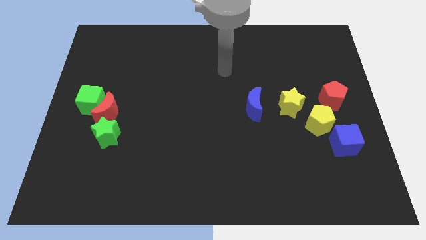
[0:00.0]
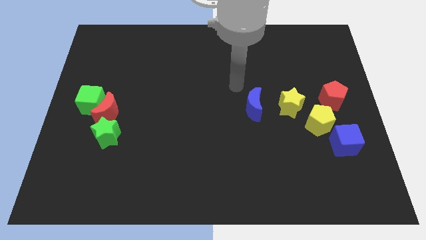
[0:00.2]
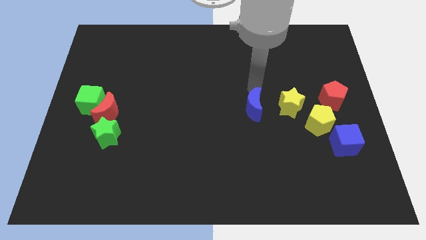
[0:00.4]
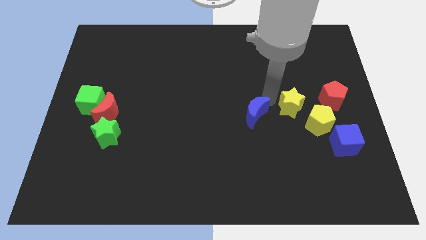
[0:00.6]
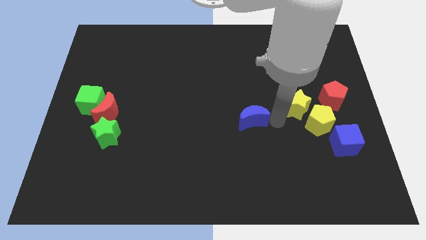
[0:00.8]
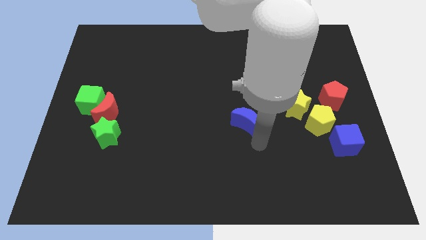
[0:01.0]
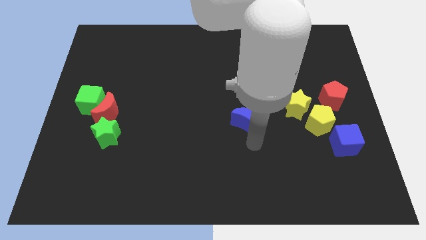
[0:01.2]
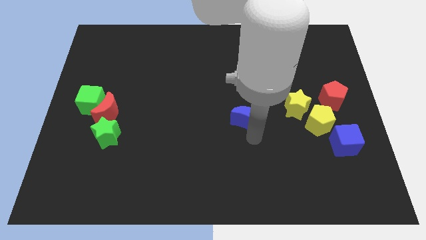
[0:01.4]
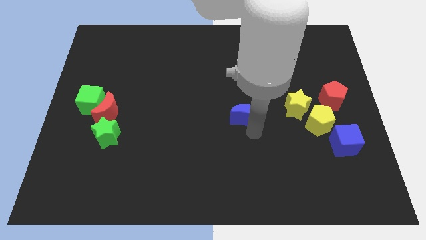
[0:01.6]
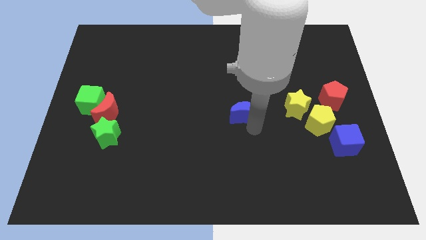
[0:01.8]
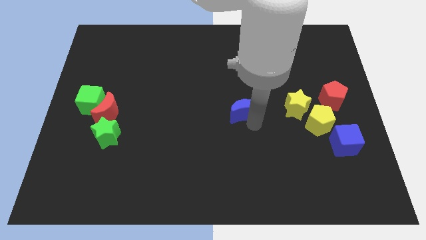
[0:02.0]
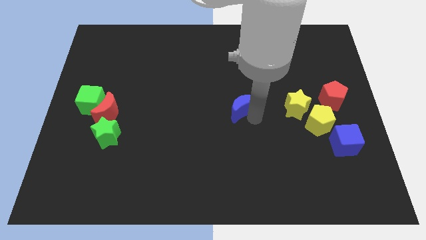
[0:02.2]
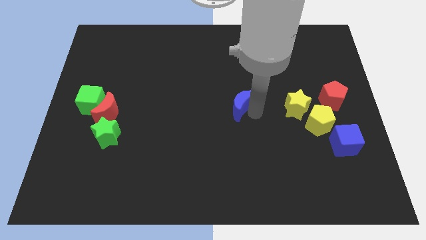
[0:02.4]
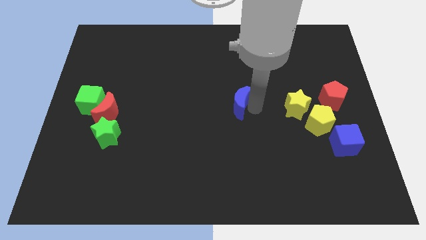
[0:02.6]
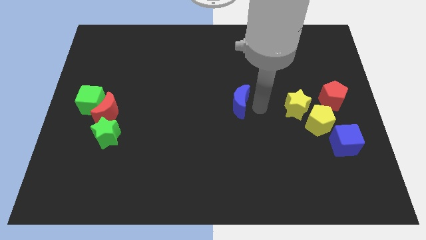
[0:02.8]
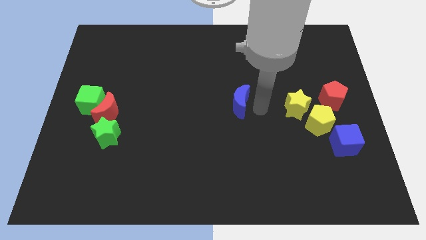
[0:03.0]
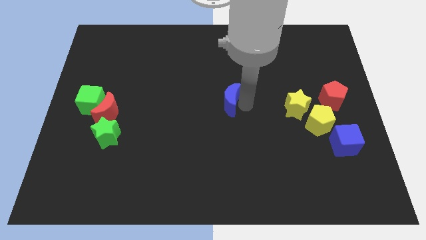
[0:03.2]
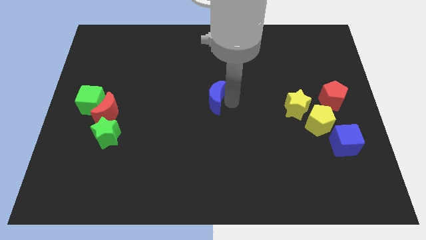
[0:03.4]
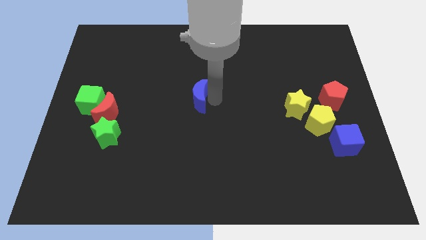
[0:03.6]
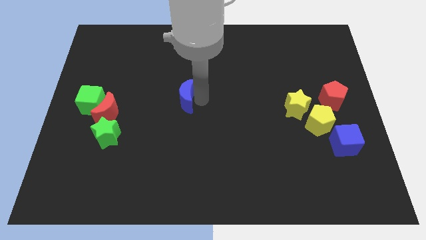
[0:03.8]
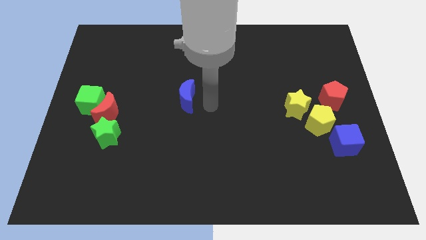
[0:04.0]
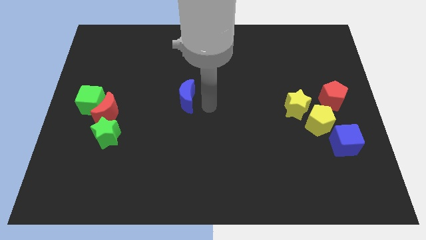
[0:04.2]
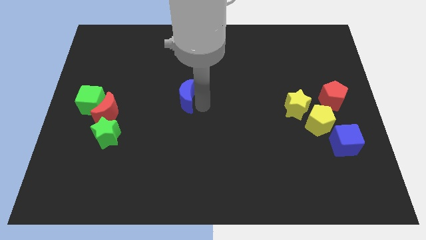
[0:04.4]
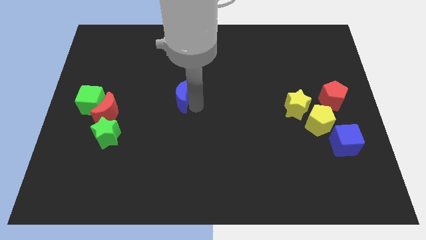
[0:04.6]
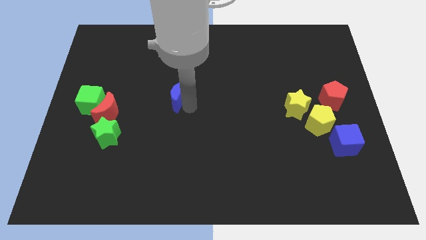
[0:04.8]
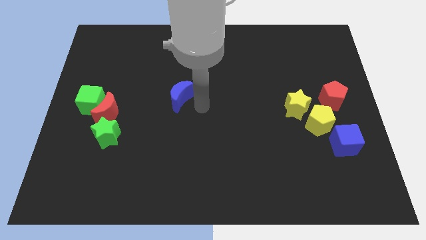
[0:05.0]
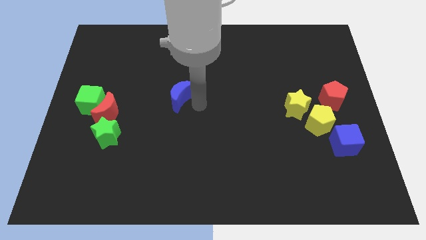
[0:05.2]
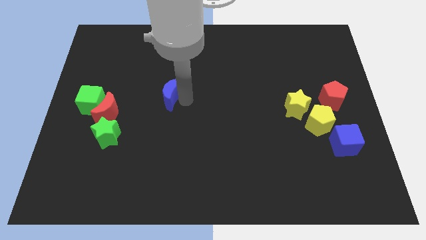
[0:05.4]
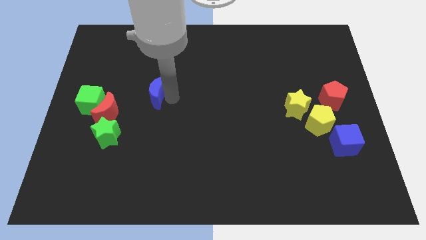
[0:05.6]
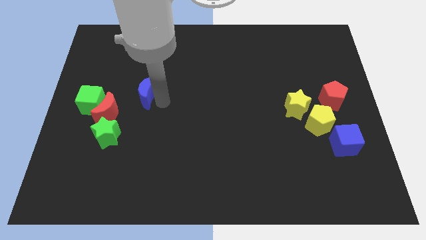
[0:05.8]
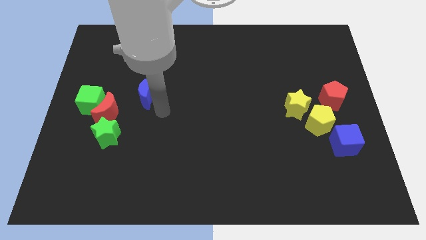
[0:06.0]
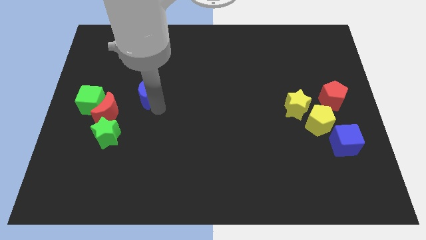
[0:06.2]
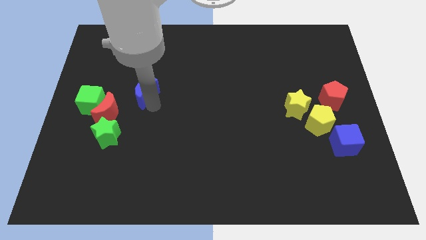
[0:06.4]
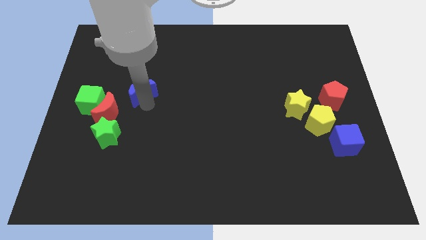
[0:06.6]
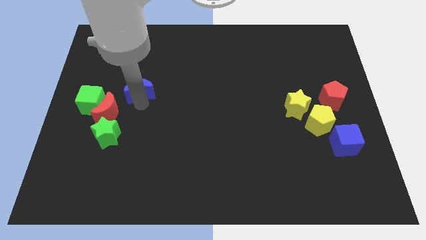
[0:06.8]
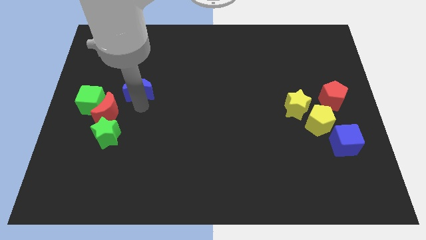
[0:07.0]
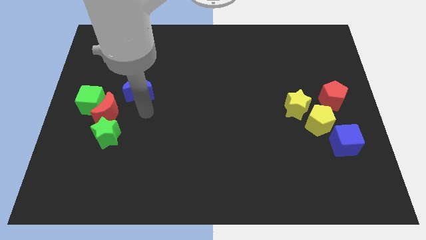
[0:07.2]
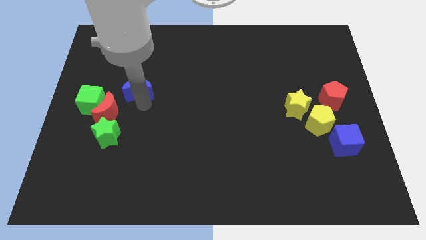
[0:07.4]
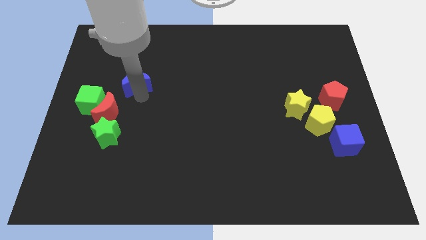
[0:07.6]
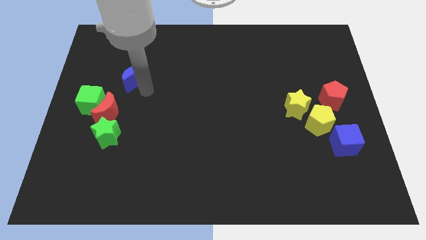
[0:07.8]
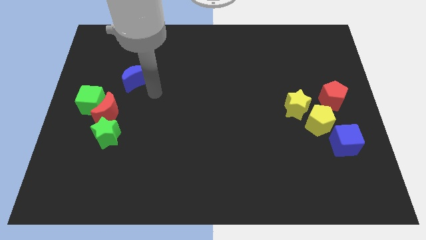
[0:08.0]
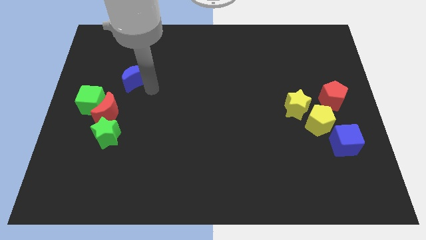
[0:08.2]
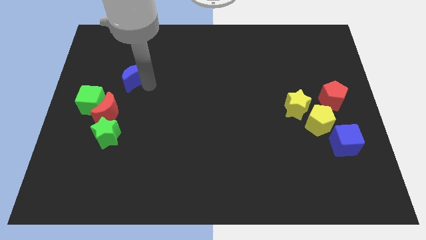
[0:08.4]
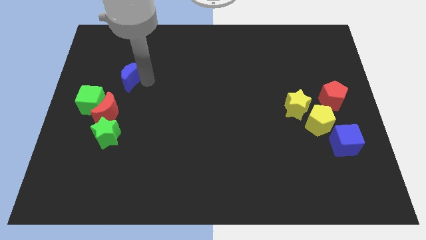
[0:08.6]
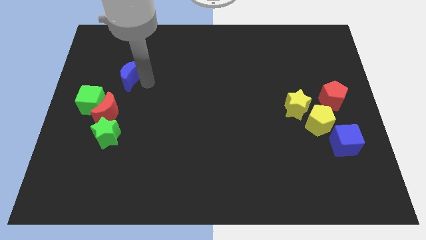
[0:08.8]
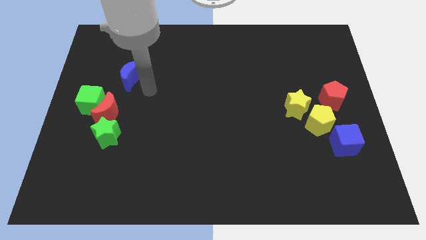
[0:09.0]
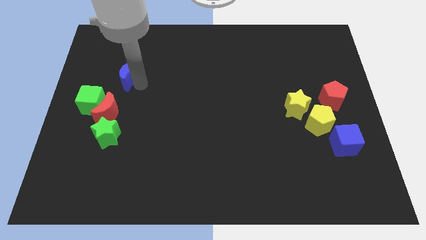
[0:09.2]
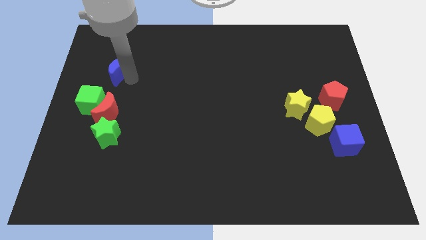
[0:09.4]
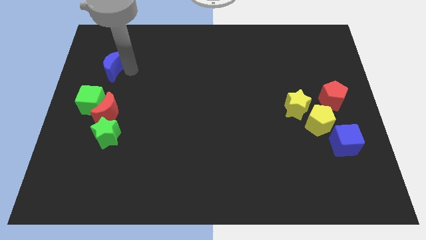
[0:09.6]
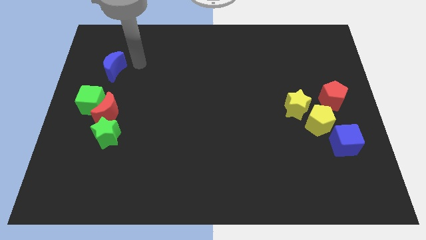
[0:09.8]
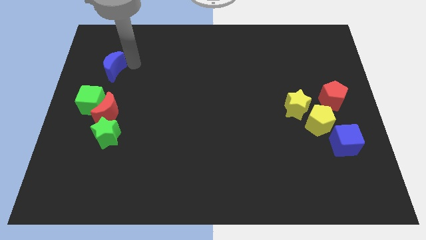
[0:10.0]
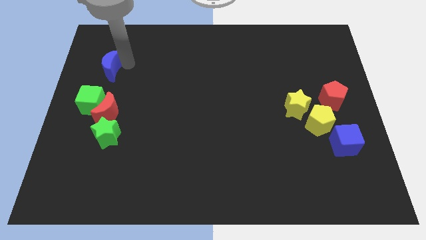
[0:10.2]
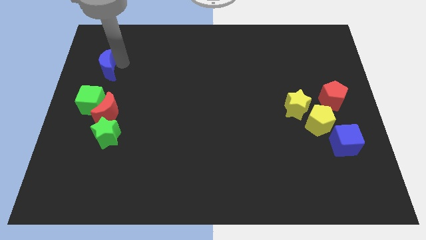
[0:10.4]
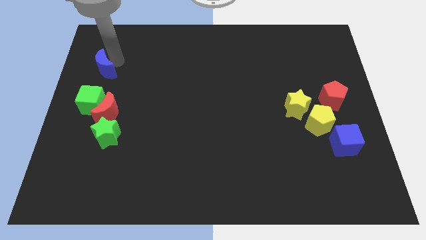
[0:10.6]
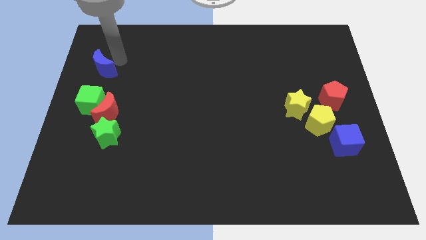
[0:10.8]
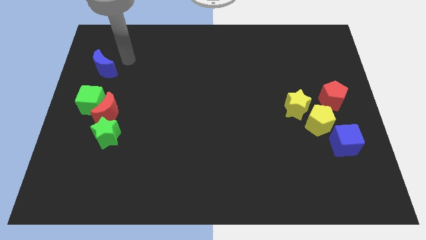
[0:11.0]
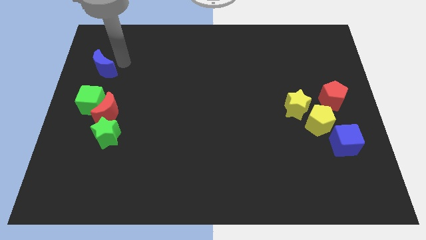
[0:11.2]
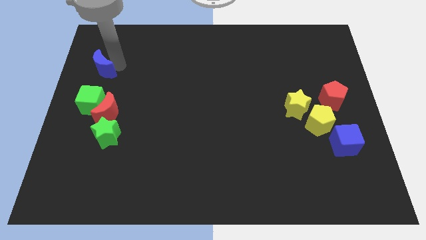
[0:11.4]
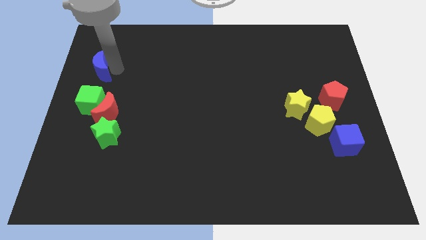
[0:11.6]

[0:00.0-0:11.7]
move the blue moon to the center left

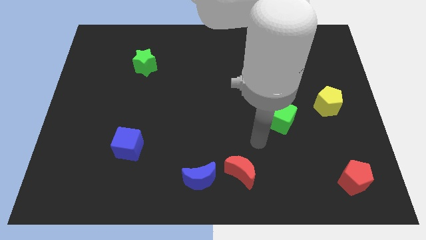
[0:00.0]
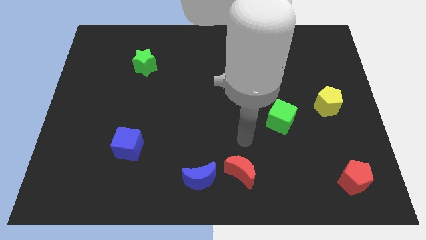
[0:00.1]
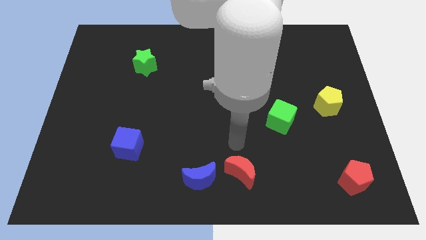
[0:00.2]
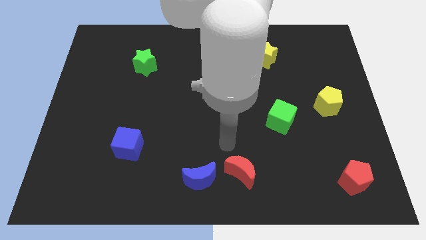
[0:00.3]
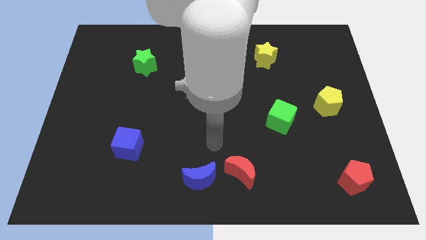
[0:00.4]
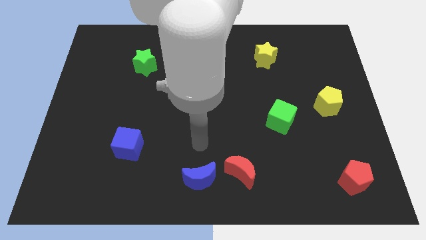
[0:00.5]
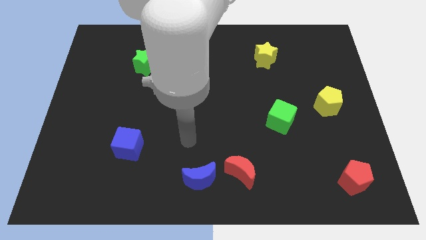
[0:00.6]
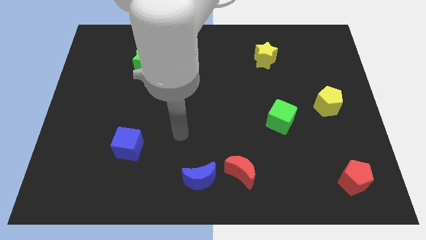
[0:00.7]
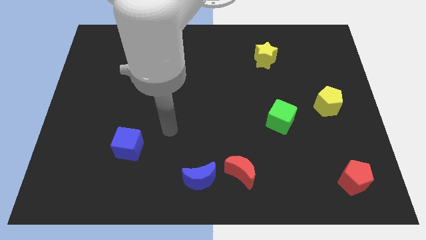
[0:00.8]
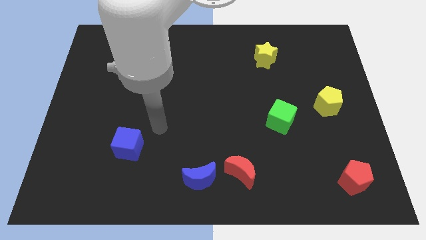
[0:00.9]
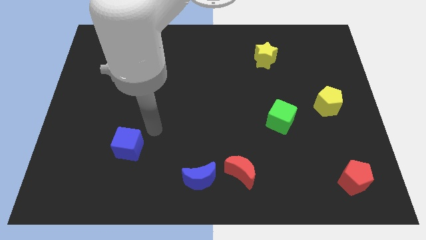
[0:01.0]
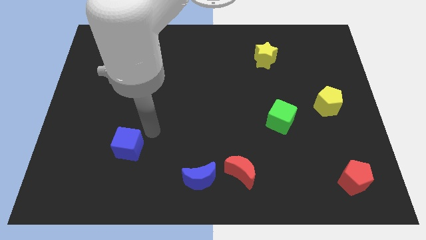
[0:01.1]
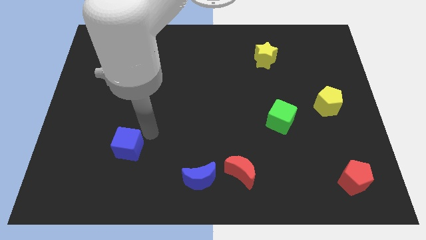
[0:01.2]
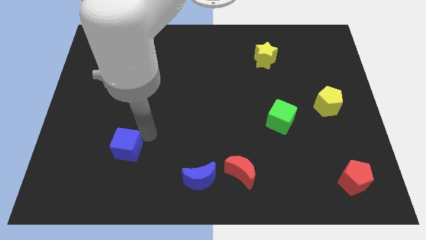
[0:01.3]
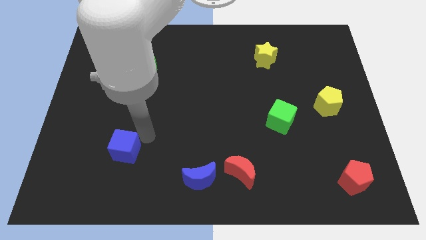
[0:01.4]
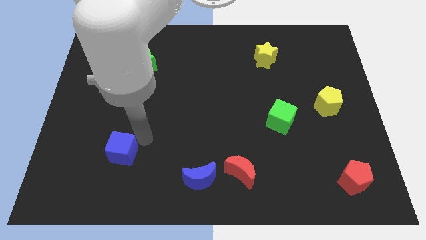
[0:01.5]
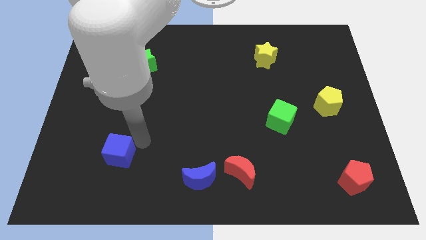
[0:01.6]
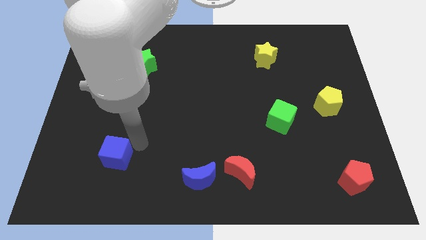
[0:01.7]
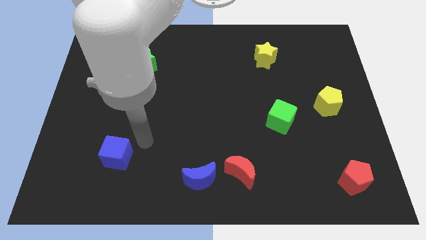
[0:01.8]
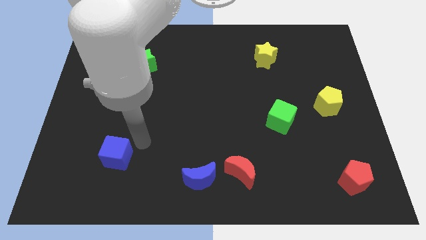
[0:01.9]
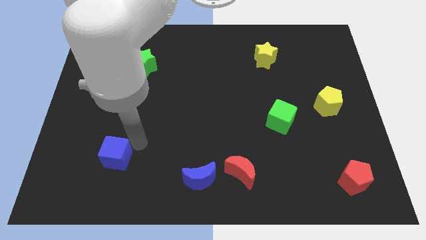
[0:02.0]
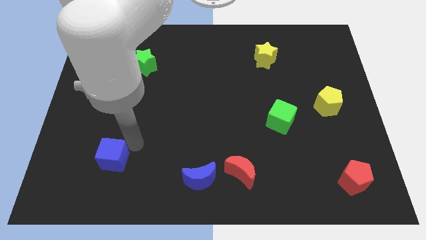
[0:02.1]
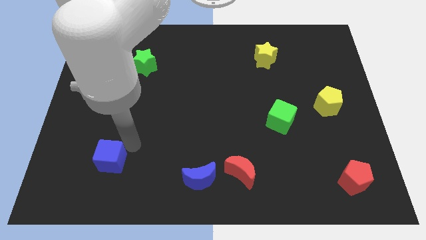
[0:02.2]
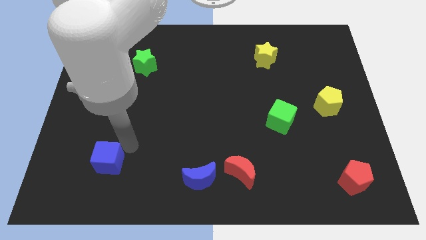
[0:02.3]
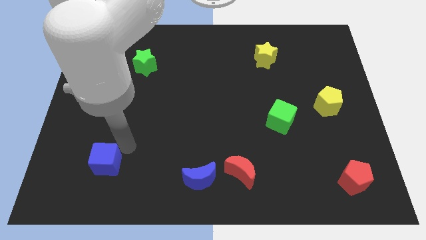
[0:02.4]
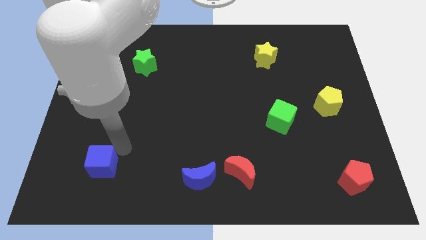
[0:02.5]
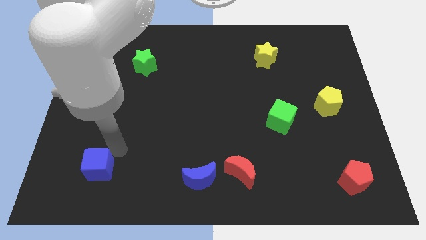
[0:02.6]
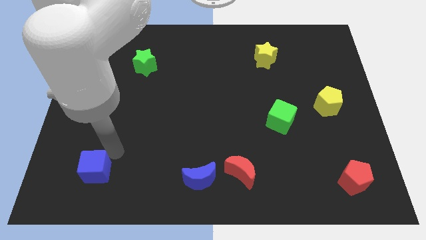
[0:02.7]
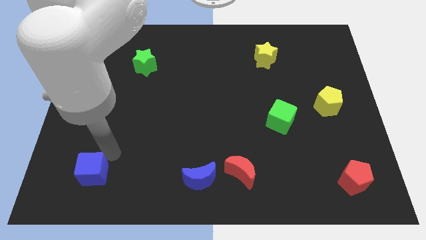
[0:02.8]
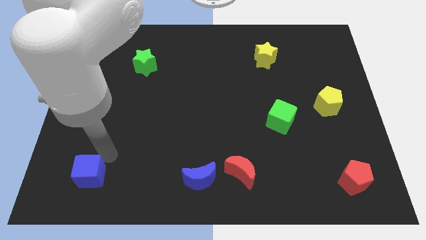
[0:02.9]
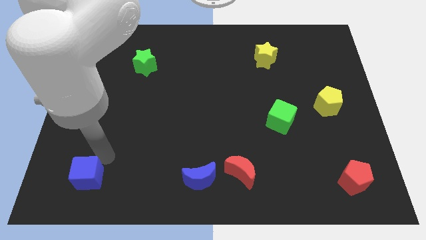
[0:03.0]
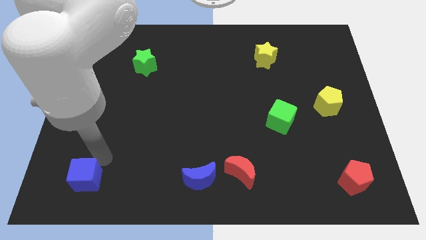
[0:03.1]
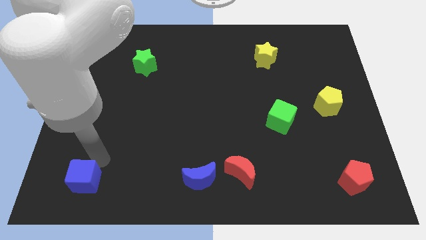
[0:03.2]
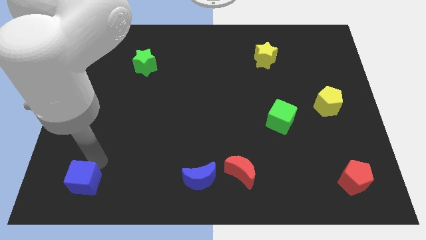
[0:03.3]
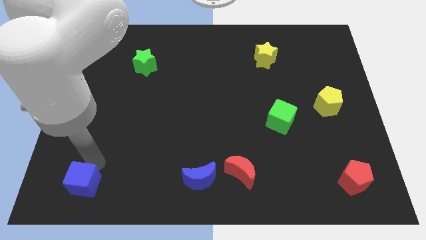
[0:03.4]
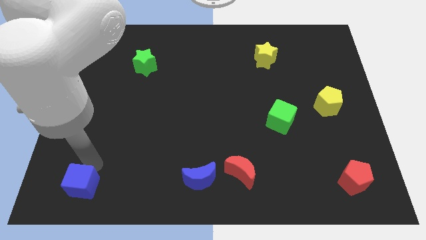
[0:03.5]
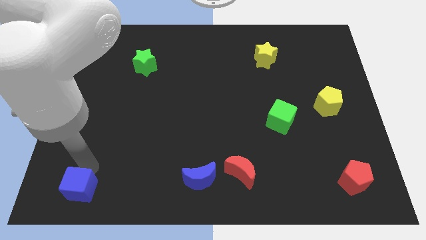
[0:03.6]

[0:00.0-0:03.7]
slide the blue cube to the bottom left
